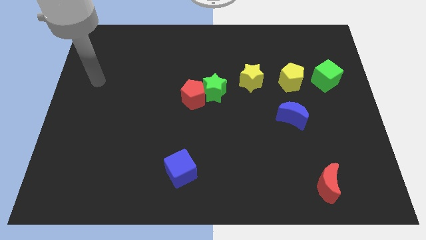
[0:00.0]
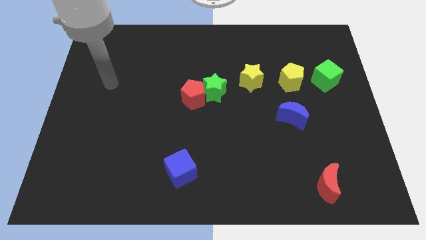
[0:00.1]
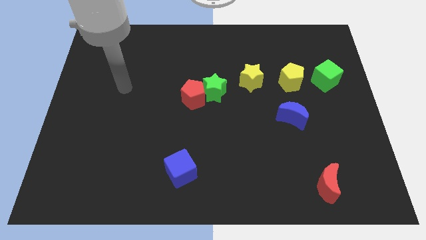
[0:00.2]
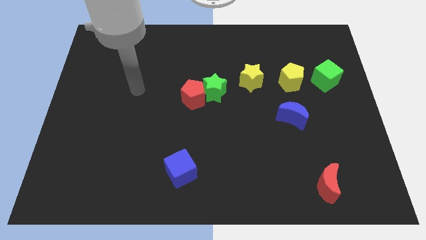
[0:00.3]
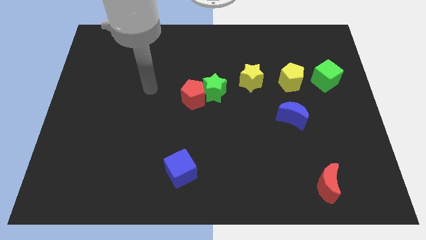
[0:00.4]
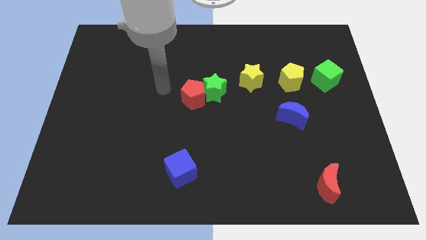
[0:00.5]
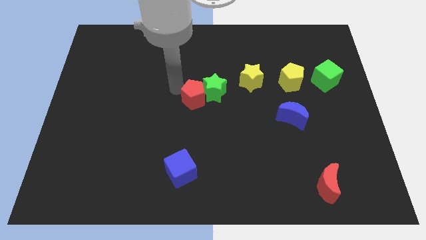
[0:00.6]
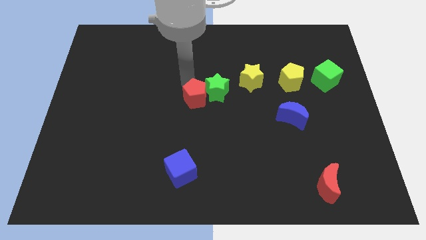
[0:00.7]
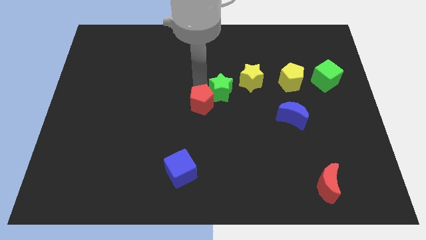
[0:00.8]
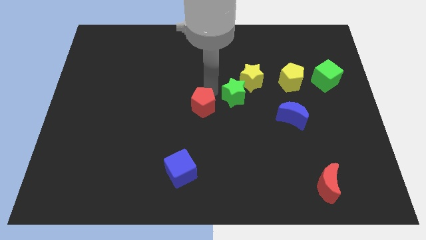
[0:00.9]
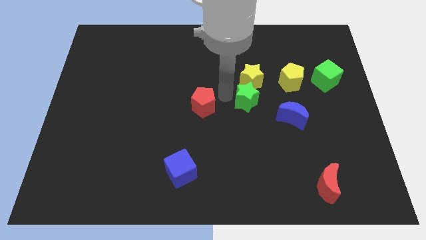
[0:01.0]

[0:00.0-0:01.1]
move the red pentagon away from the green star

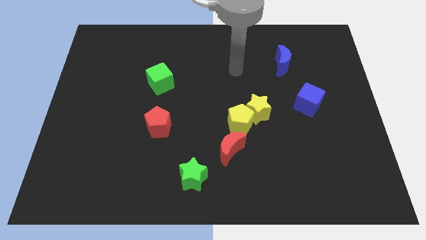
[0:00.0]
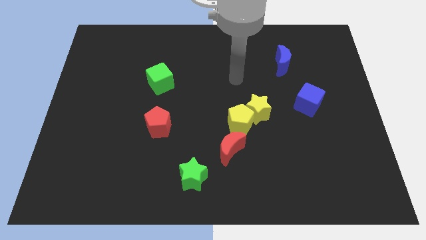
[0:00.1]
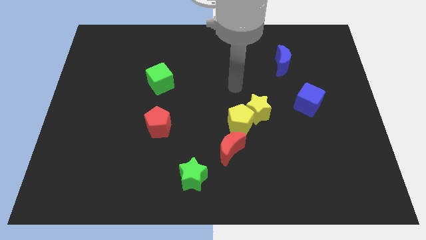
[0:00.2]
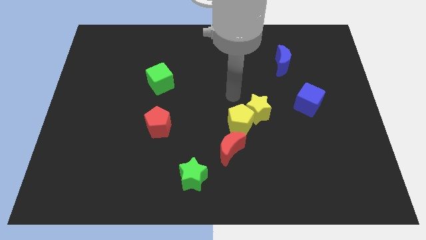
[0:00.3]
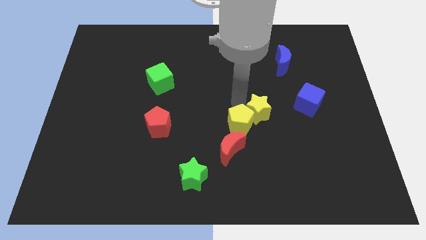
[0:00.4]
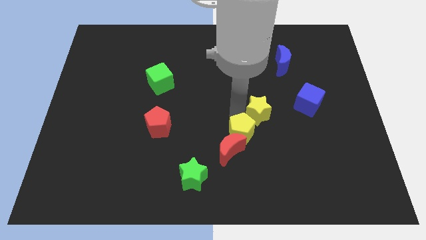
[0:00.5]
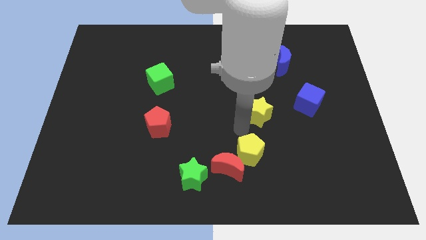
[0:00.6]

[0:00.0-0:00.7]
move the yellow star away from the yellow pentagon

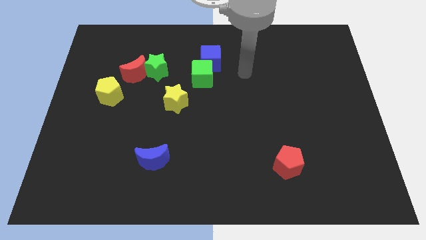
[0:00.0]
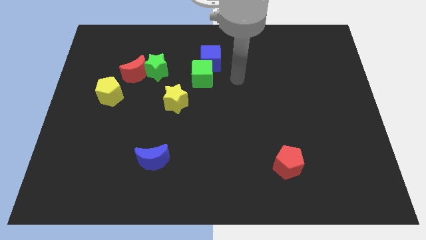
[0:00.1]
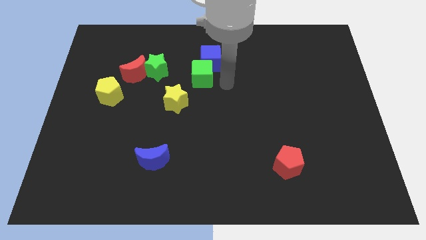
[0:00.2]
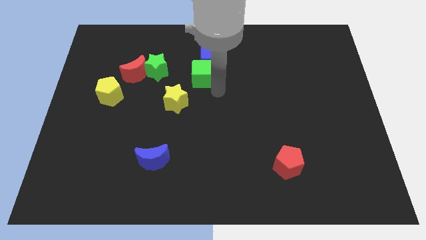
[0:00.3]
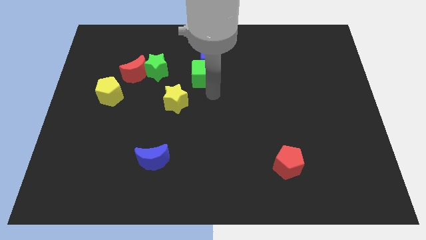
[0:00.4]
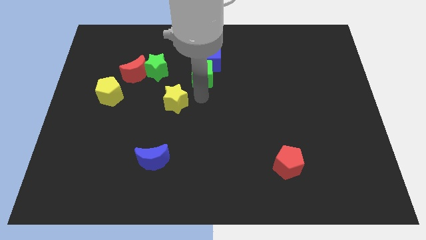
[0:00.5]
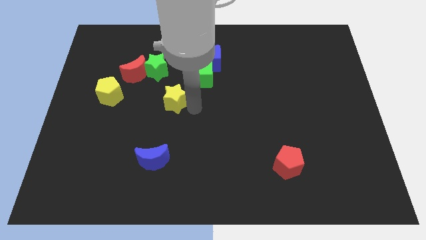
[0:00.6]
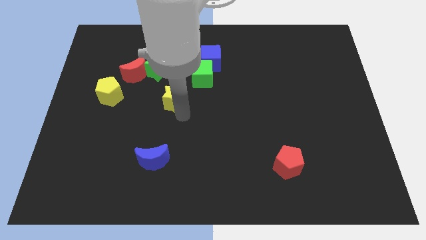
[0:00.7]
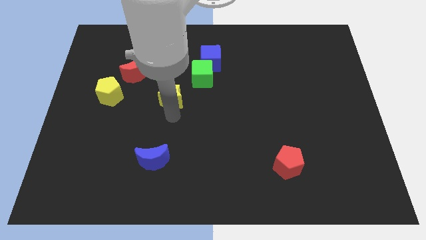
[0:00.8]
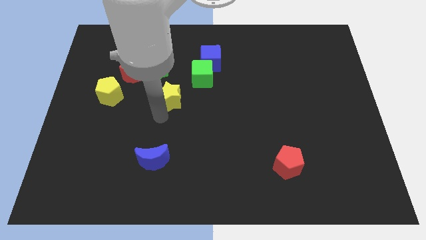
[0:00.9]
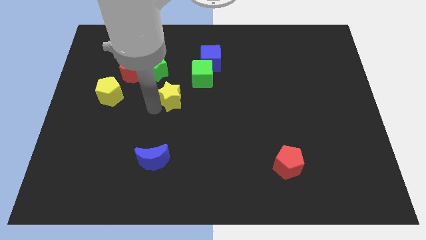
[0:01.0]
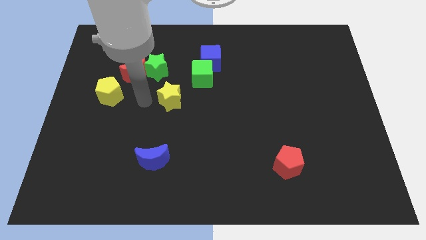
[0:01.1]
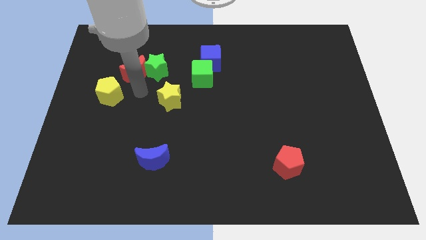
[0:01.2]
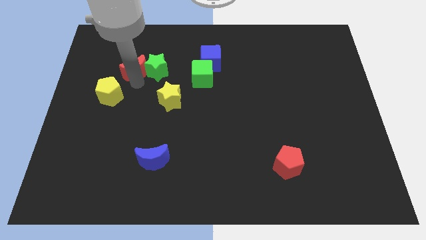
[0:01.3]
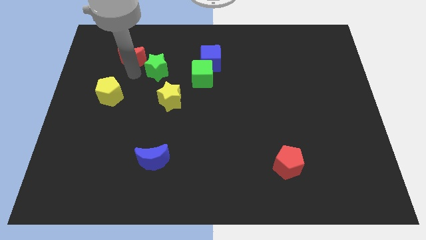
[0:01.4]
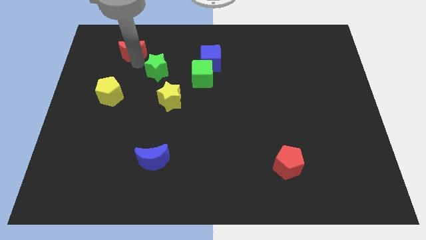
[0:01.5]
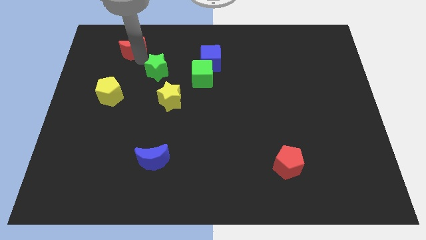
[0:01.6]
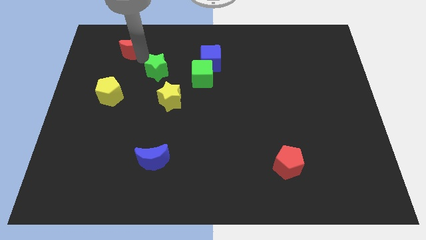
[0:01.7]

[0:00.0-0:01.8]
separate the green star from the red moon

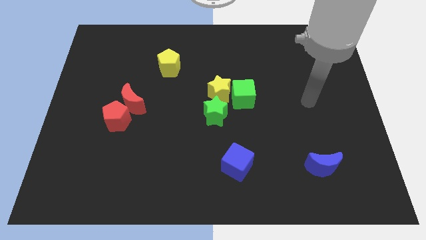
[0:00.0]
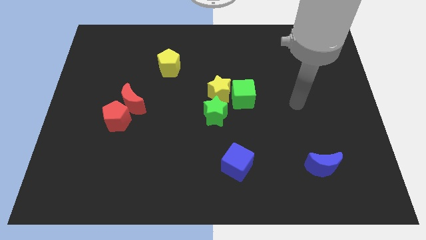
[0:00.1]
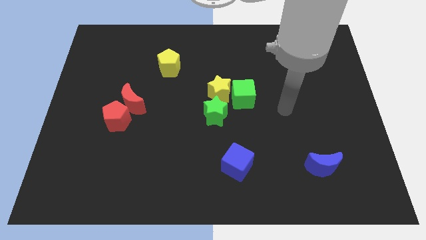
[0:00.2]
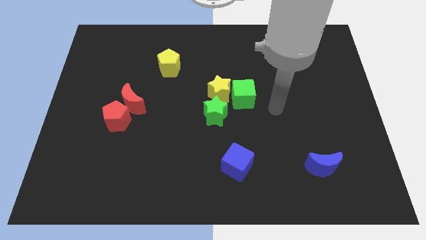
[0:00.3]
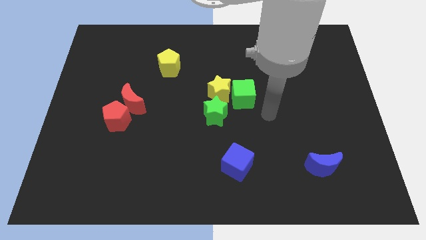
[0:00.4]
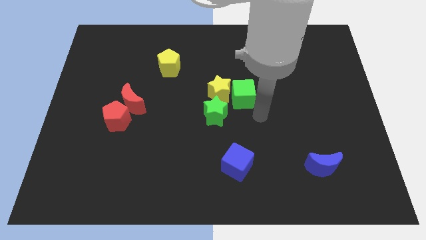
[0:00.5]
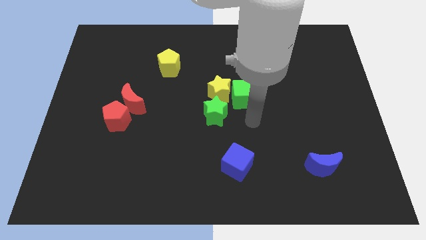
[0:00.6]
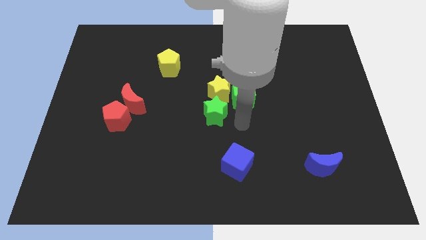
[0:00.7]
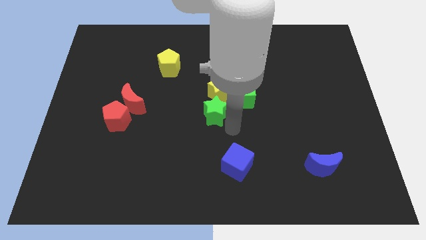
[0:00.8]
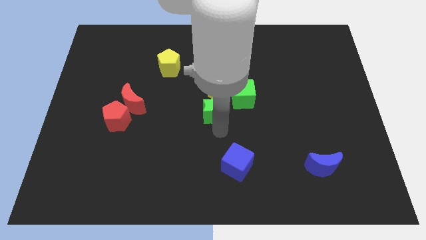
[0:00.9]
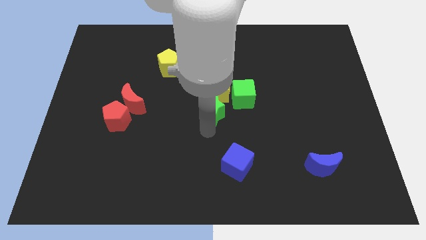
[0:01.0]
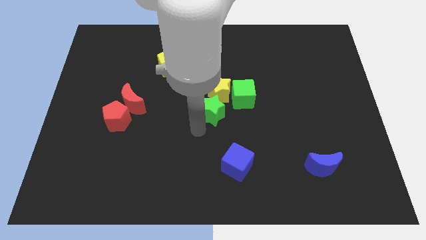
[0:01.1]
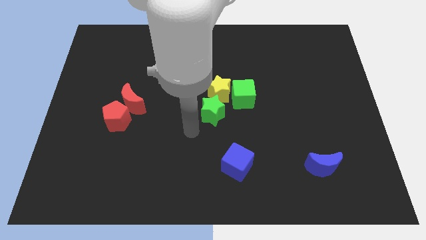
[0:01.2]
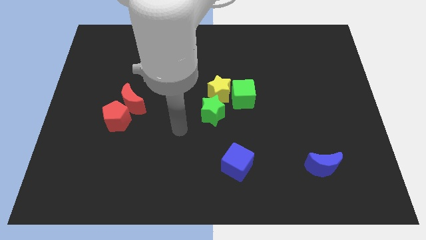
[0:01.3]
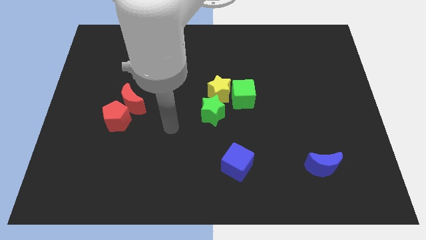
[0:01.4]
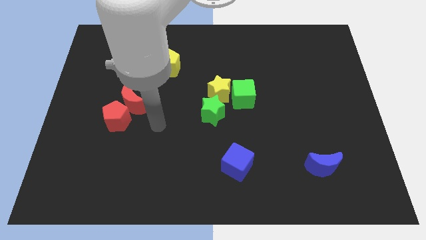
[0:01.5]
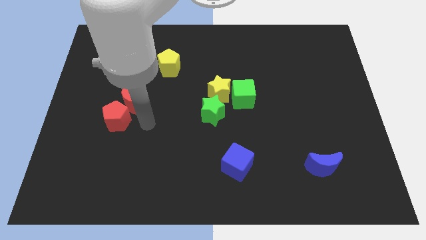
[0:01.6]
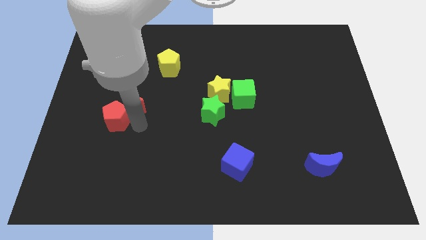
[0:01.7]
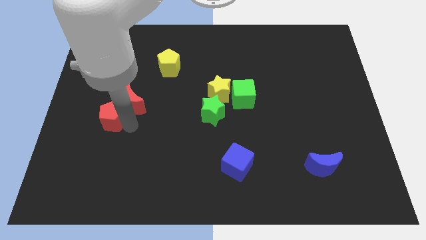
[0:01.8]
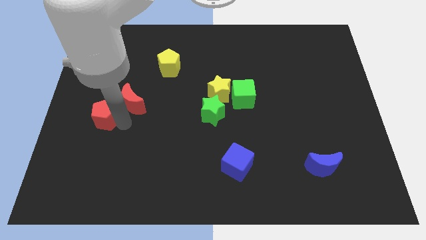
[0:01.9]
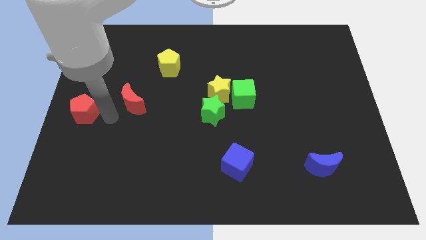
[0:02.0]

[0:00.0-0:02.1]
separate the red moon from the red pentagon

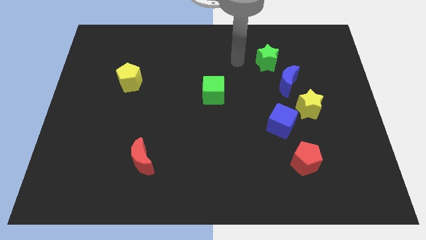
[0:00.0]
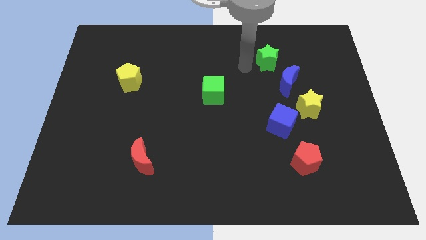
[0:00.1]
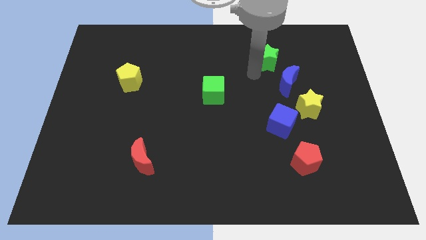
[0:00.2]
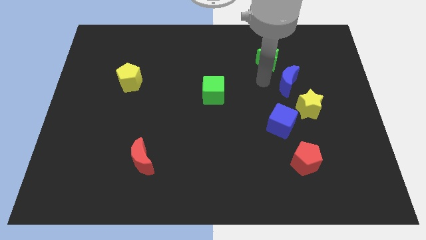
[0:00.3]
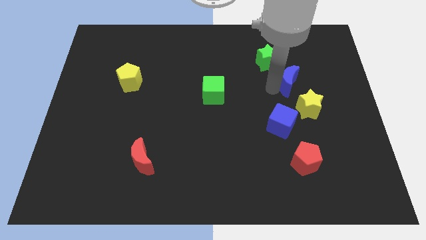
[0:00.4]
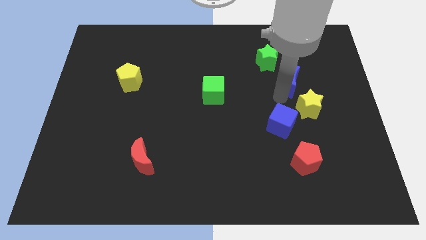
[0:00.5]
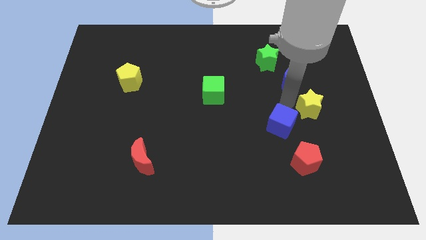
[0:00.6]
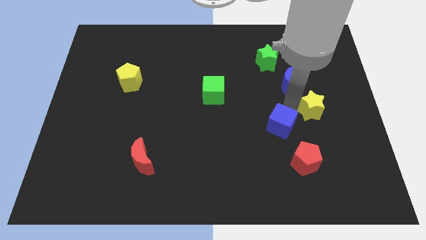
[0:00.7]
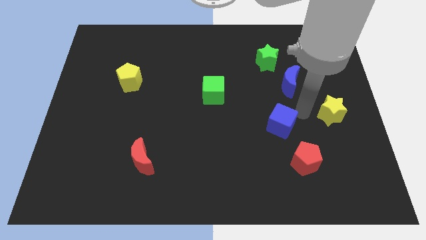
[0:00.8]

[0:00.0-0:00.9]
pull the blue cube apart from the yellow star

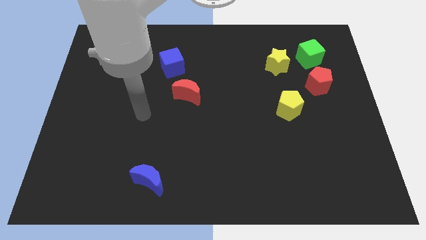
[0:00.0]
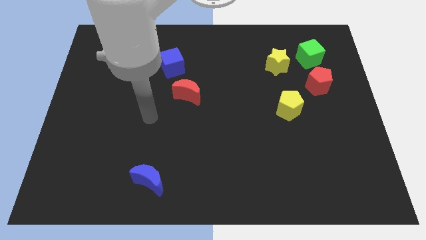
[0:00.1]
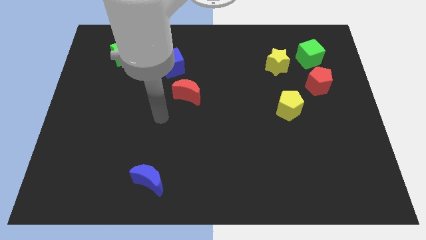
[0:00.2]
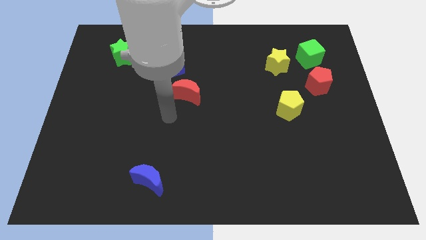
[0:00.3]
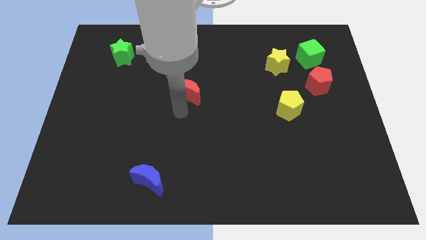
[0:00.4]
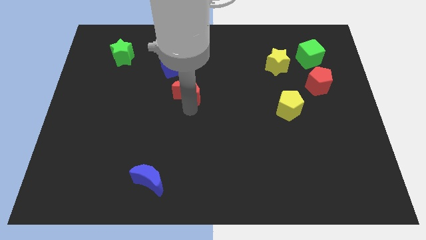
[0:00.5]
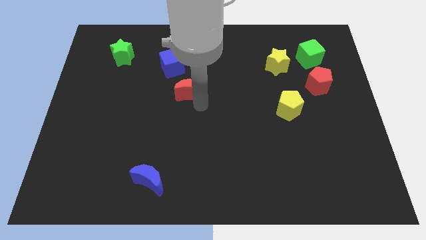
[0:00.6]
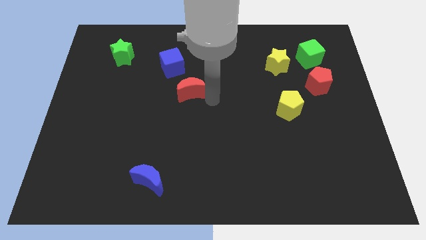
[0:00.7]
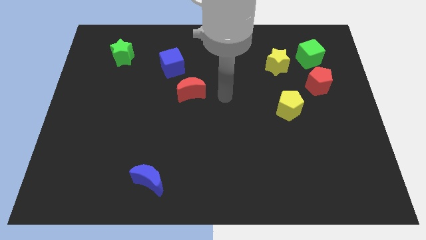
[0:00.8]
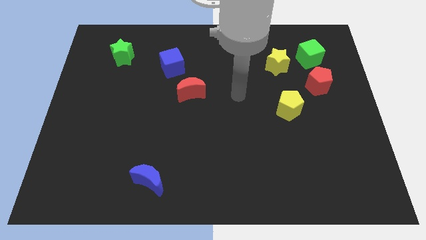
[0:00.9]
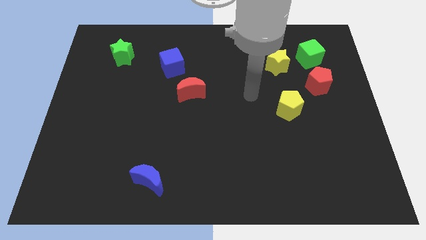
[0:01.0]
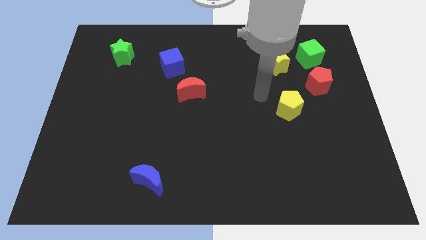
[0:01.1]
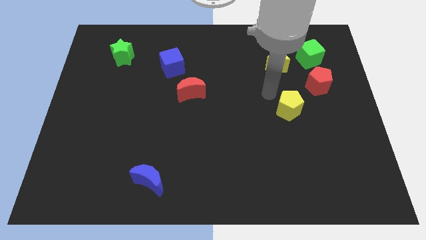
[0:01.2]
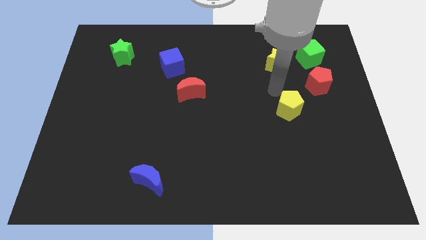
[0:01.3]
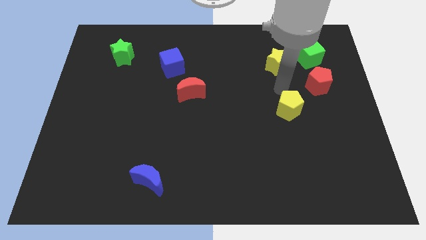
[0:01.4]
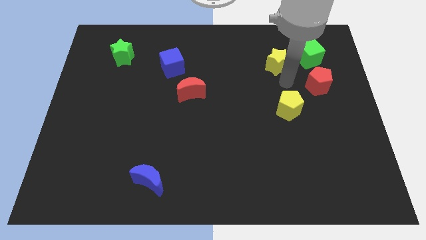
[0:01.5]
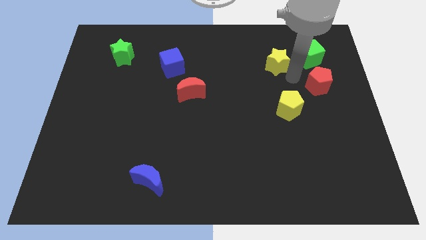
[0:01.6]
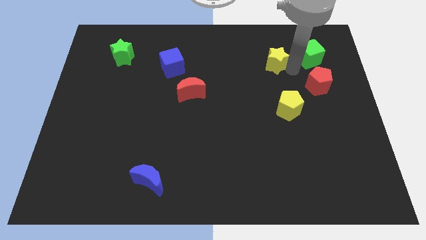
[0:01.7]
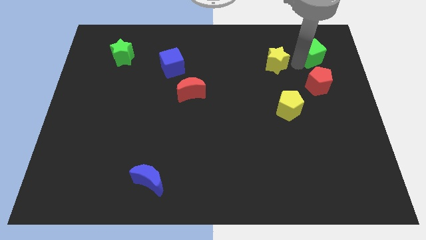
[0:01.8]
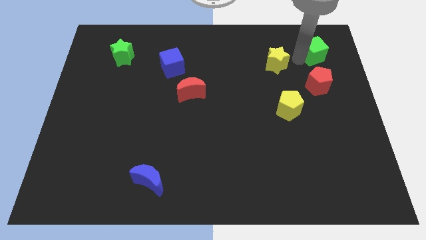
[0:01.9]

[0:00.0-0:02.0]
move the yellow star away from the green cube

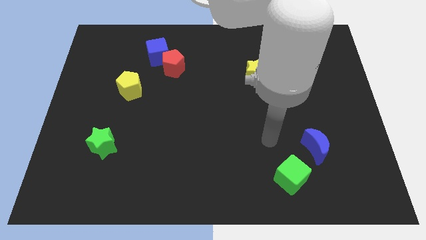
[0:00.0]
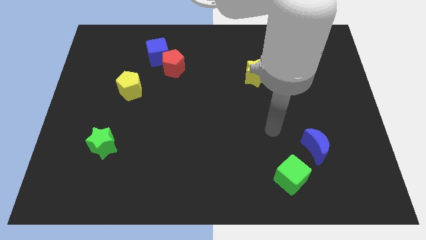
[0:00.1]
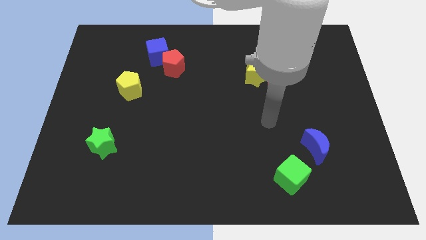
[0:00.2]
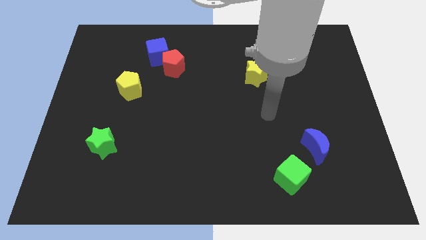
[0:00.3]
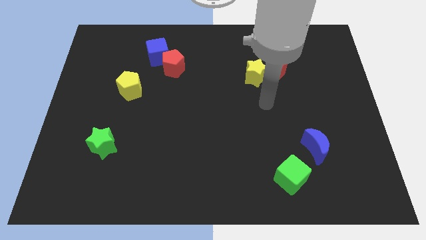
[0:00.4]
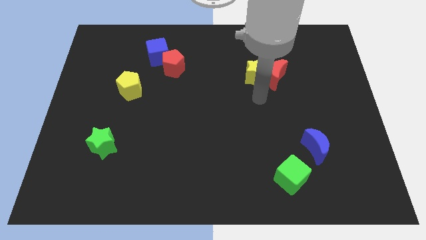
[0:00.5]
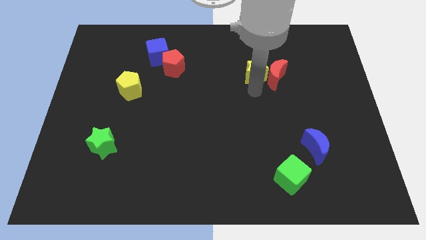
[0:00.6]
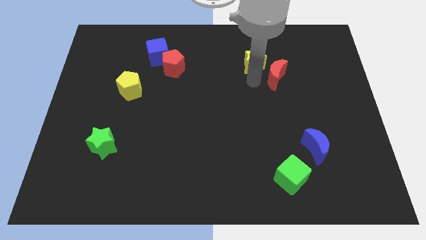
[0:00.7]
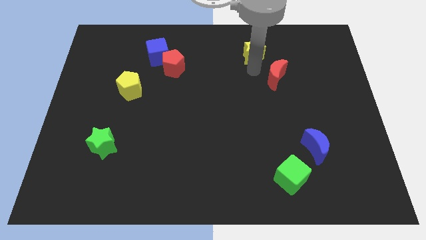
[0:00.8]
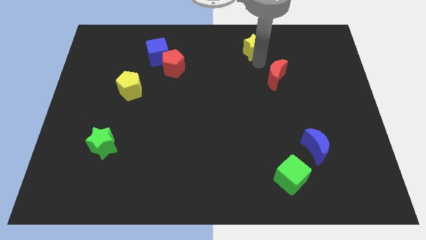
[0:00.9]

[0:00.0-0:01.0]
move the red moon away from the yellow star
